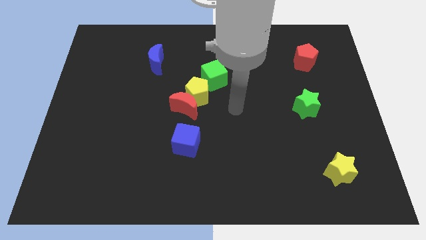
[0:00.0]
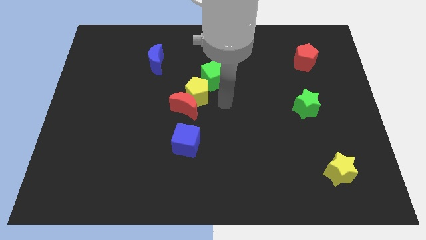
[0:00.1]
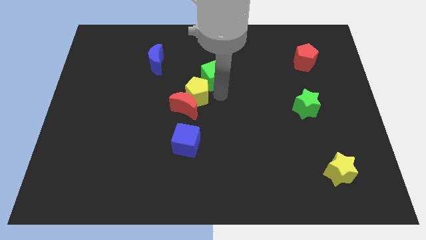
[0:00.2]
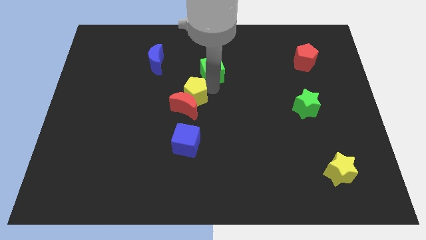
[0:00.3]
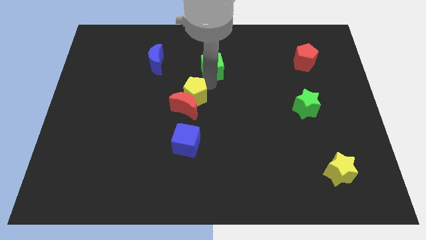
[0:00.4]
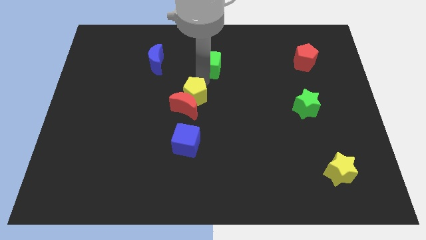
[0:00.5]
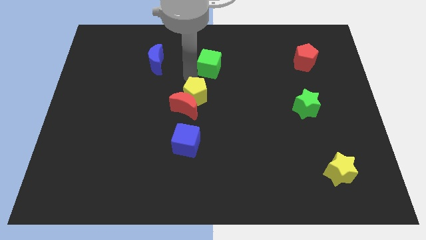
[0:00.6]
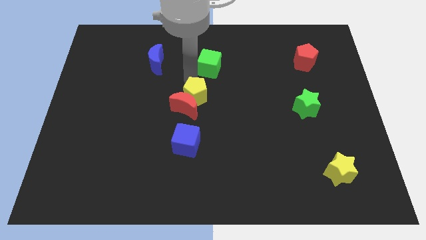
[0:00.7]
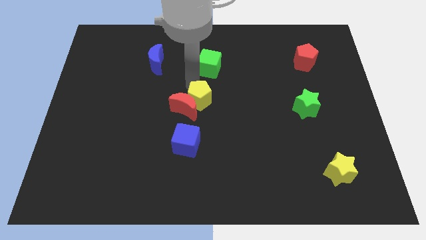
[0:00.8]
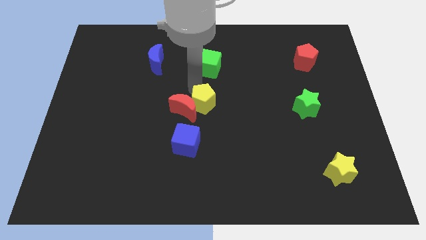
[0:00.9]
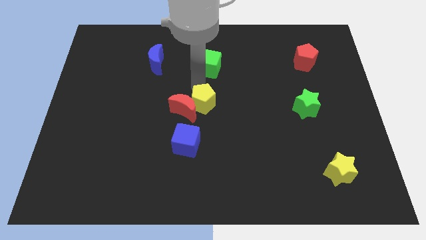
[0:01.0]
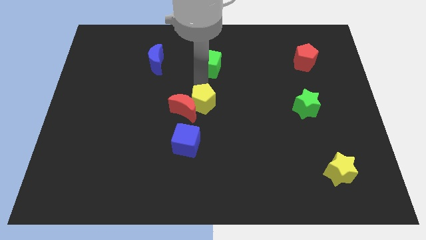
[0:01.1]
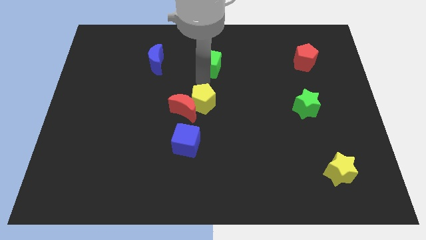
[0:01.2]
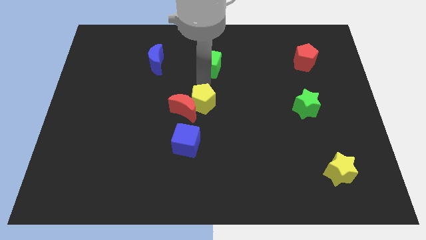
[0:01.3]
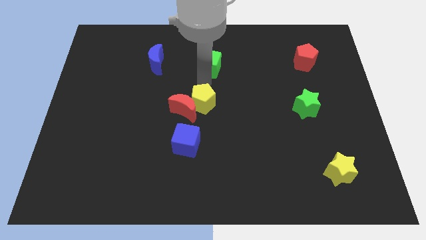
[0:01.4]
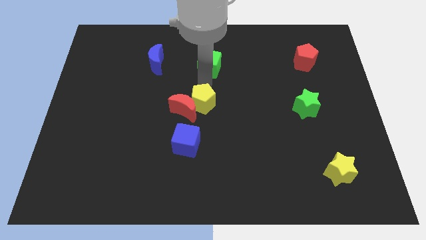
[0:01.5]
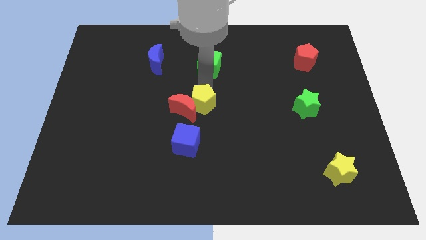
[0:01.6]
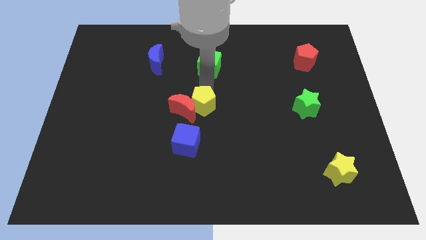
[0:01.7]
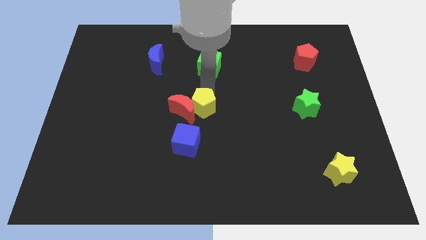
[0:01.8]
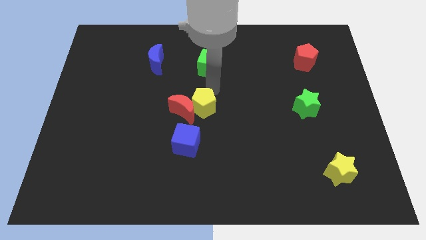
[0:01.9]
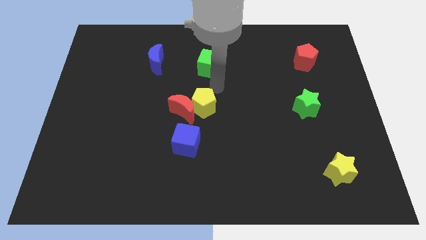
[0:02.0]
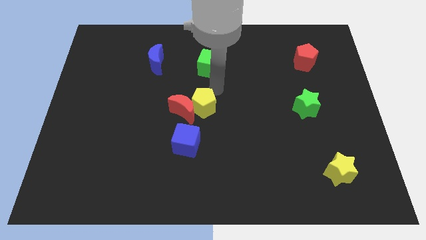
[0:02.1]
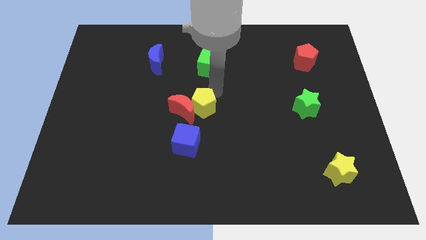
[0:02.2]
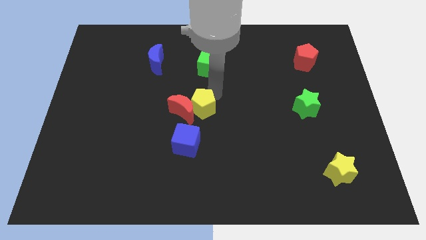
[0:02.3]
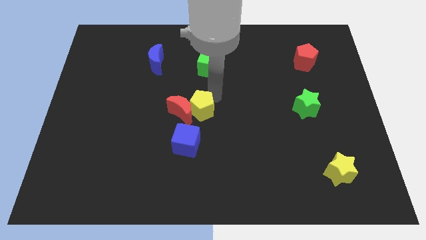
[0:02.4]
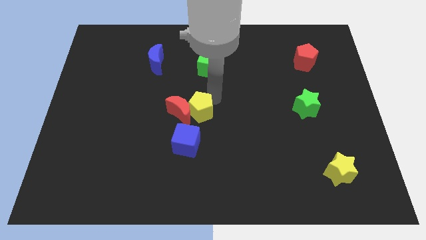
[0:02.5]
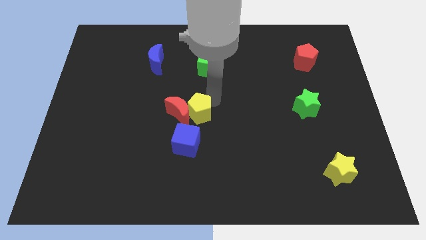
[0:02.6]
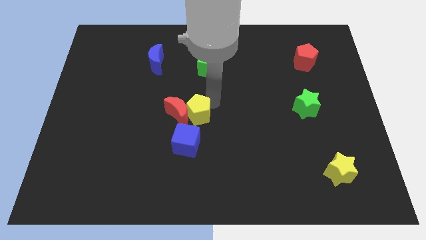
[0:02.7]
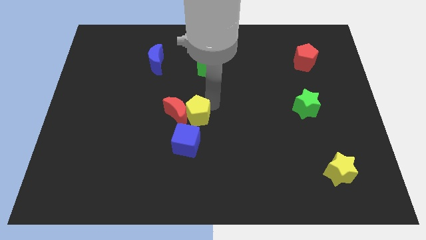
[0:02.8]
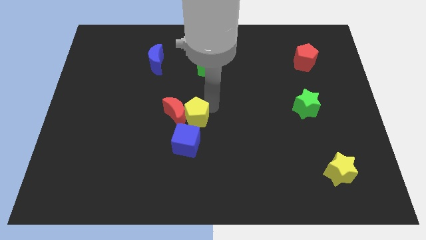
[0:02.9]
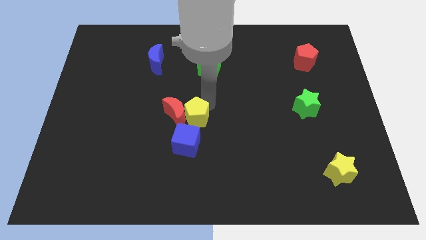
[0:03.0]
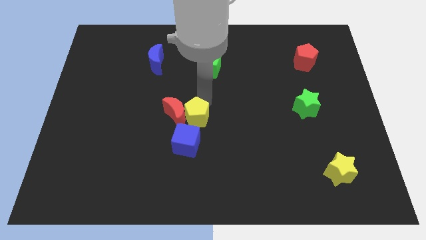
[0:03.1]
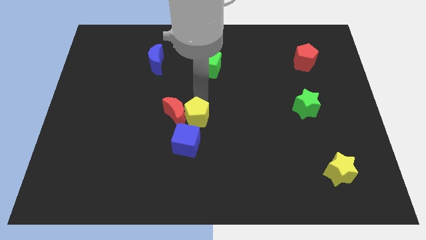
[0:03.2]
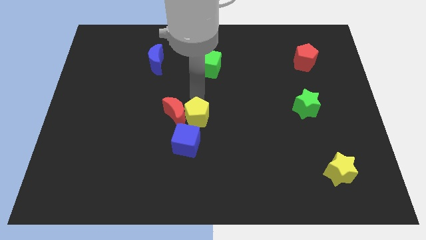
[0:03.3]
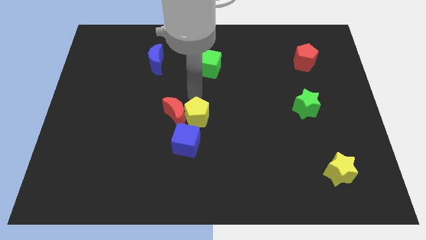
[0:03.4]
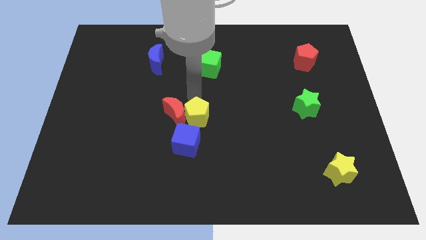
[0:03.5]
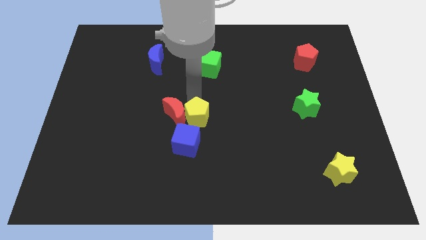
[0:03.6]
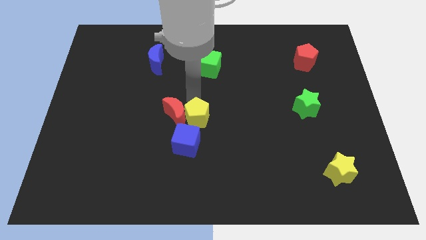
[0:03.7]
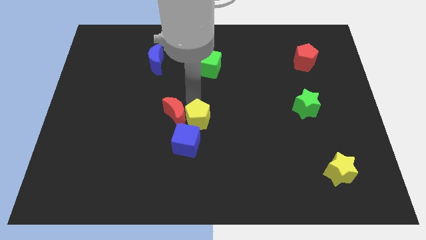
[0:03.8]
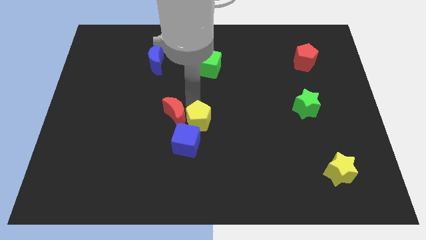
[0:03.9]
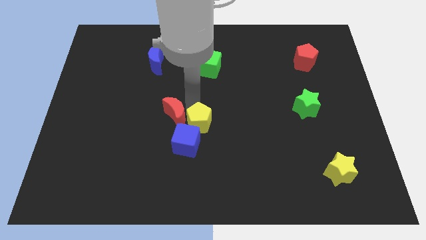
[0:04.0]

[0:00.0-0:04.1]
pull the yellow pentagon apart from the red moon and green cube

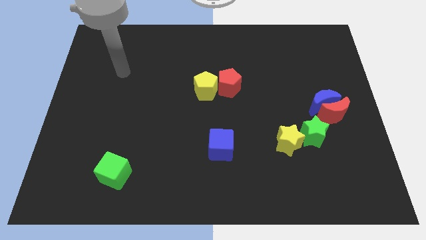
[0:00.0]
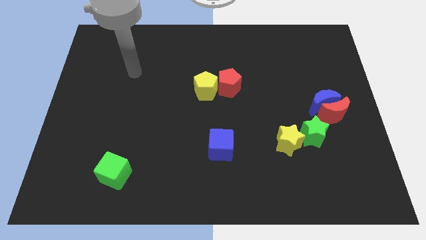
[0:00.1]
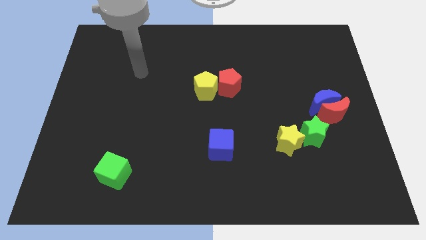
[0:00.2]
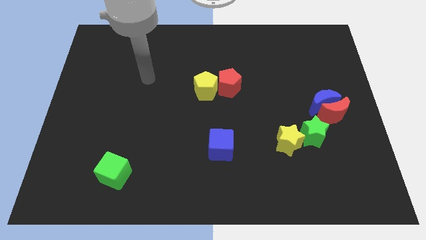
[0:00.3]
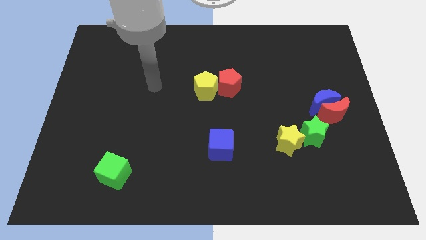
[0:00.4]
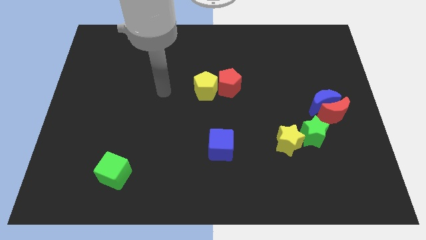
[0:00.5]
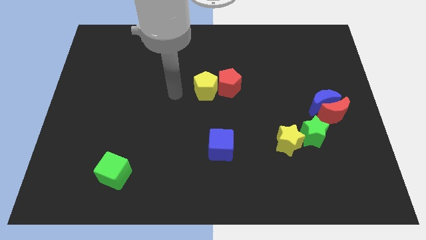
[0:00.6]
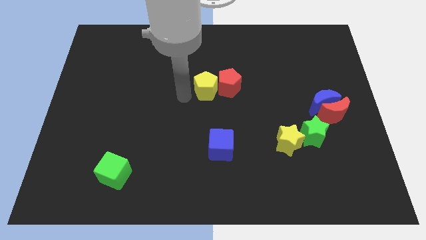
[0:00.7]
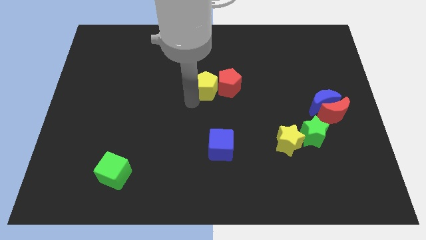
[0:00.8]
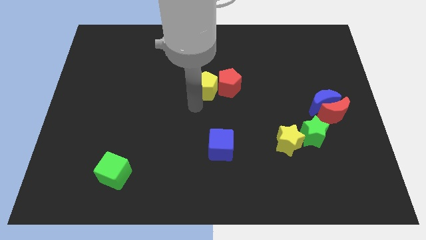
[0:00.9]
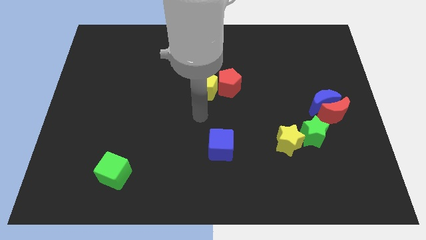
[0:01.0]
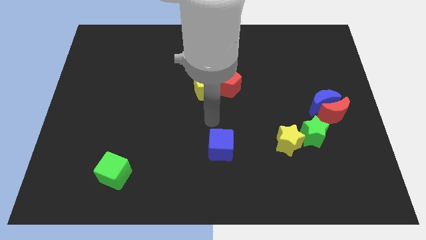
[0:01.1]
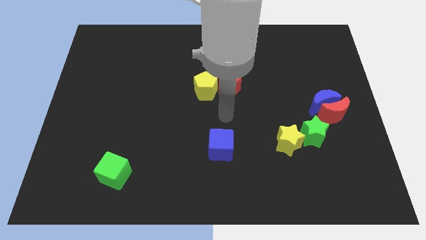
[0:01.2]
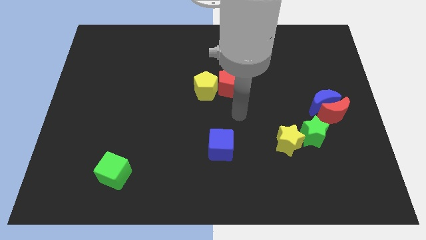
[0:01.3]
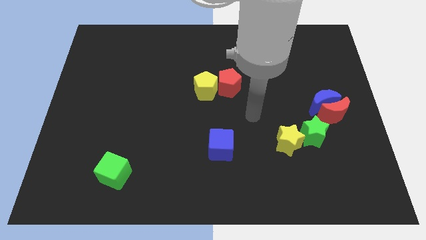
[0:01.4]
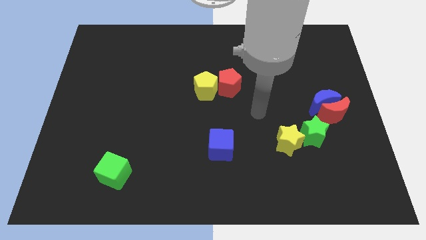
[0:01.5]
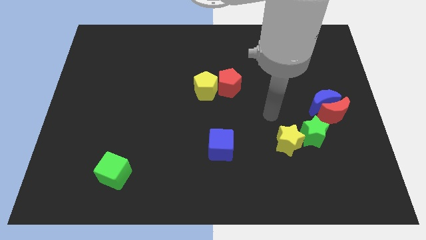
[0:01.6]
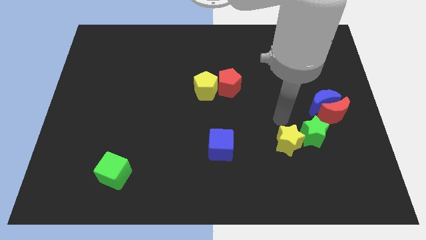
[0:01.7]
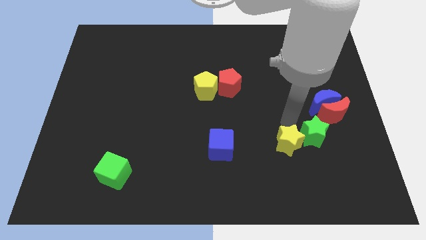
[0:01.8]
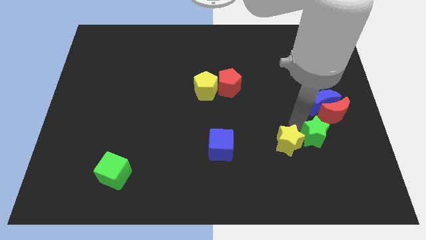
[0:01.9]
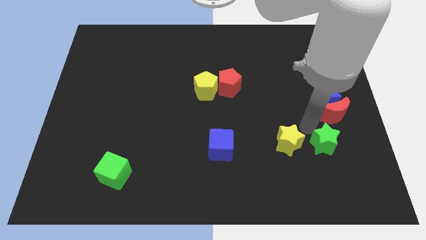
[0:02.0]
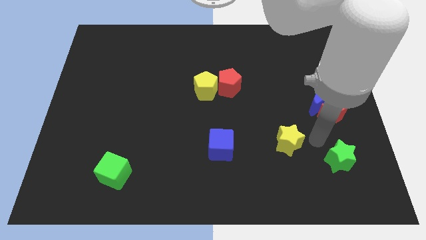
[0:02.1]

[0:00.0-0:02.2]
move the yellow star away from the green star

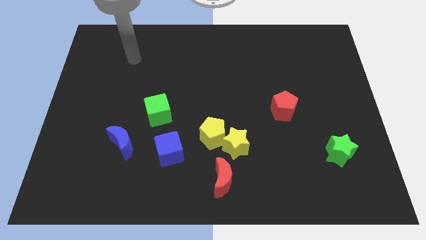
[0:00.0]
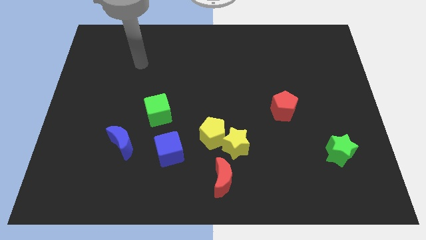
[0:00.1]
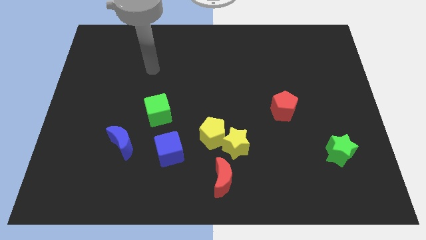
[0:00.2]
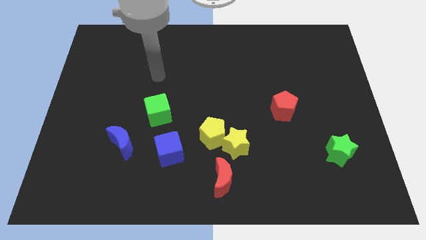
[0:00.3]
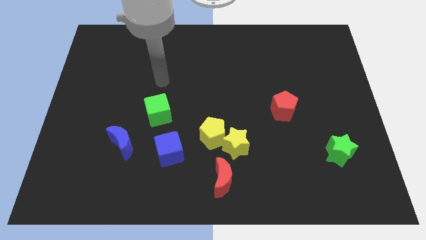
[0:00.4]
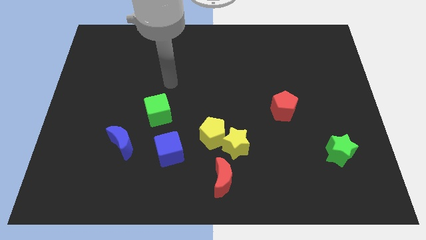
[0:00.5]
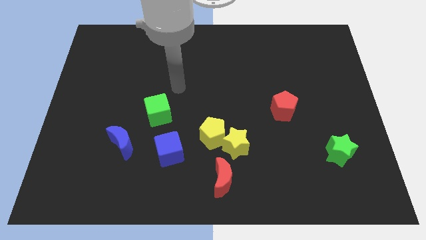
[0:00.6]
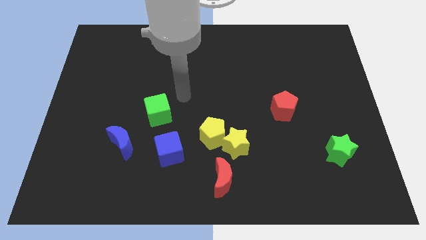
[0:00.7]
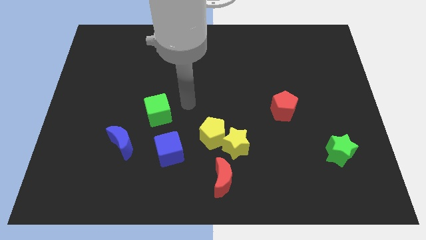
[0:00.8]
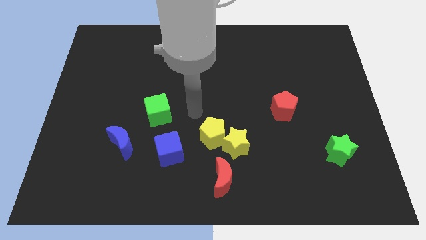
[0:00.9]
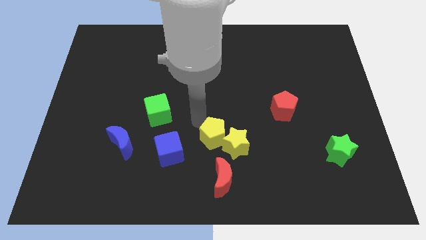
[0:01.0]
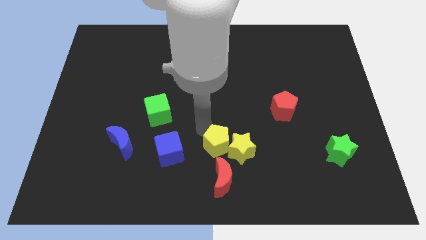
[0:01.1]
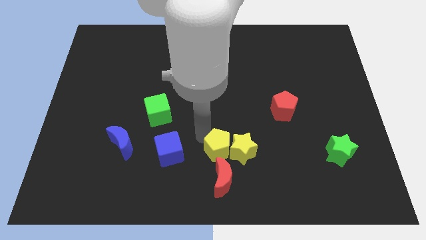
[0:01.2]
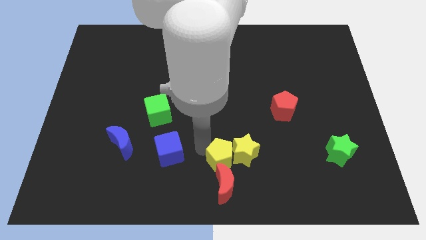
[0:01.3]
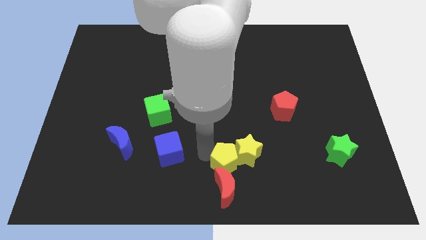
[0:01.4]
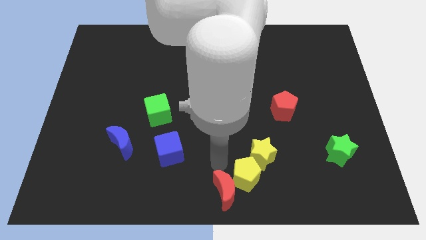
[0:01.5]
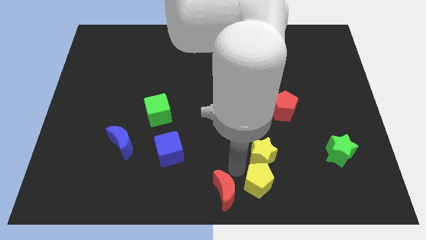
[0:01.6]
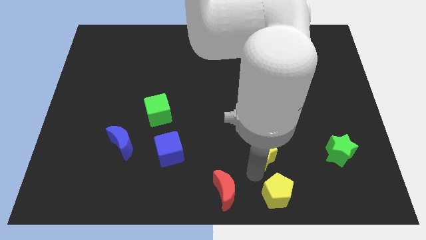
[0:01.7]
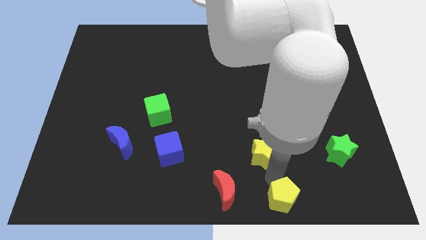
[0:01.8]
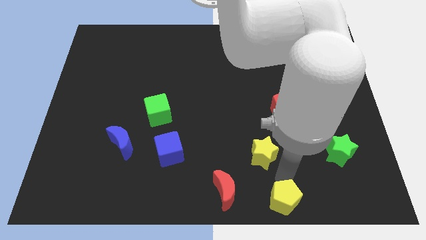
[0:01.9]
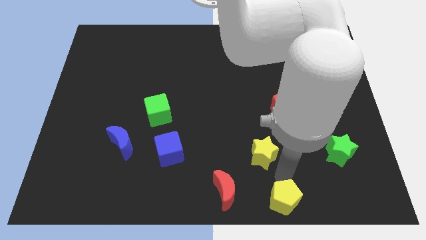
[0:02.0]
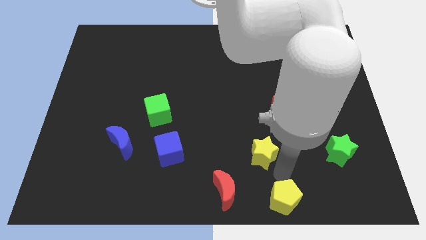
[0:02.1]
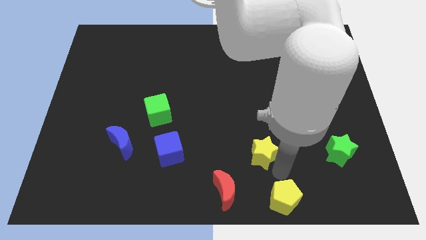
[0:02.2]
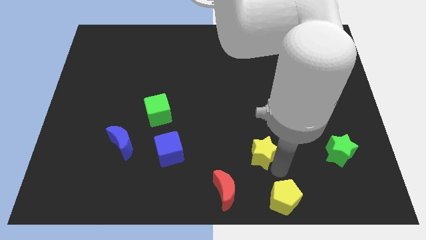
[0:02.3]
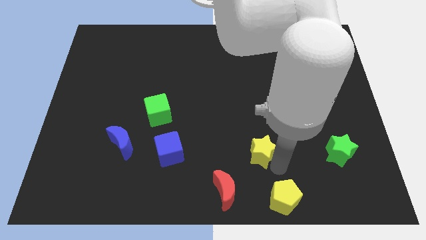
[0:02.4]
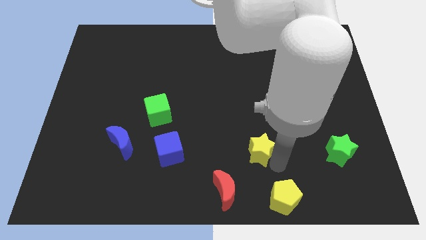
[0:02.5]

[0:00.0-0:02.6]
pull the yellow star apart from the yellow pentagon and red moon

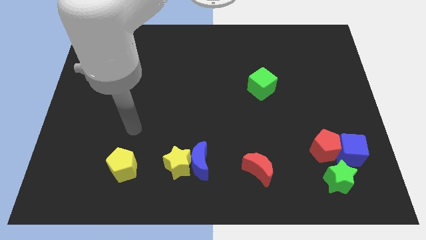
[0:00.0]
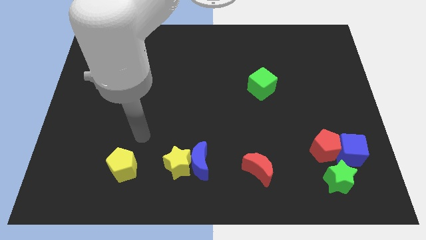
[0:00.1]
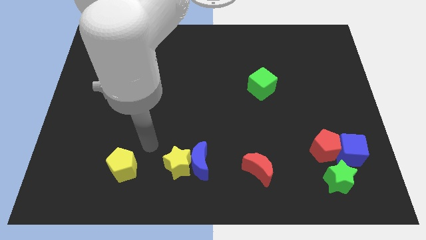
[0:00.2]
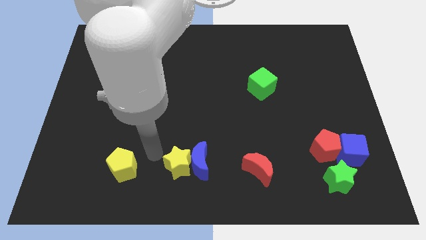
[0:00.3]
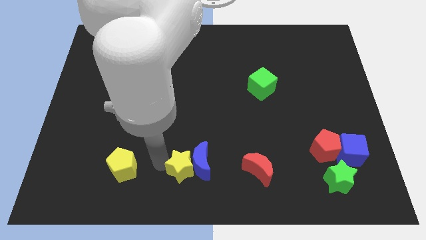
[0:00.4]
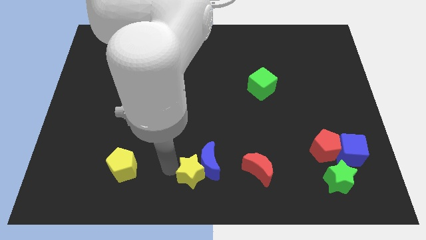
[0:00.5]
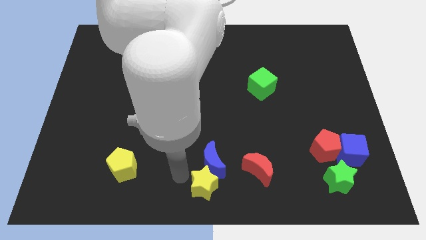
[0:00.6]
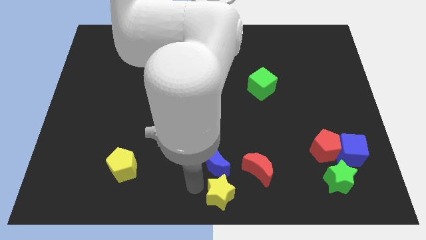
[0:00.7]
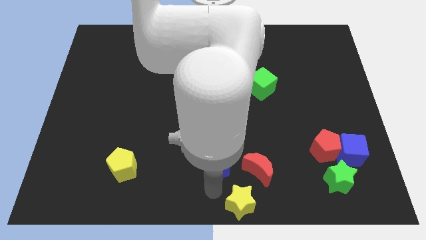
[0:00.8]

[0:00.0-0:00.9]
pull the blue moon apart from the yellow star
